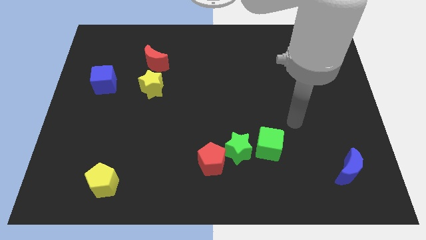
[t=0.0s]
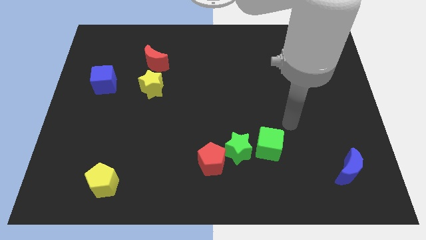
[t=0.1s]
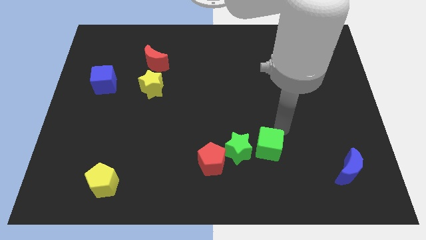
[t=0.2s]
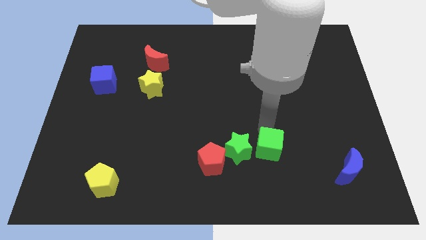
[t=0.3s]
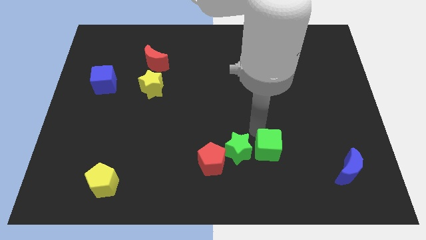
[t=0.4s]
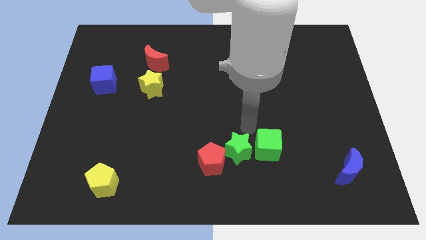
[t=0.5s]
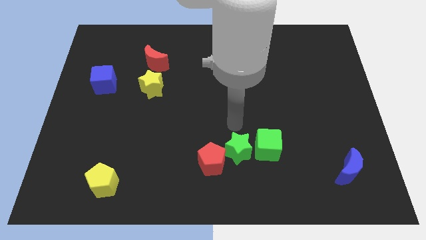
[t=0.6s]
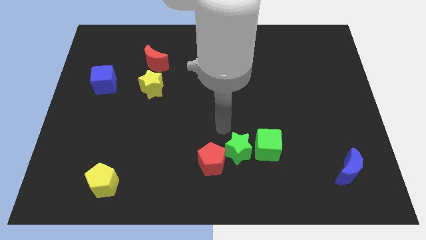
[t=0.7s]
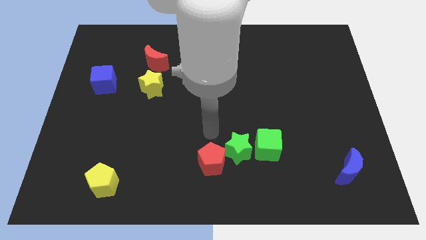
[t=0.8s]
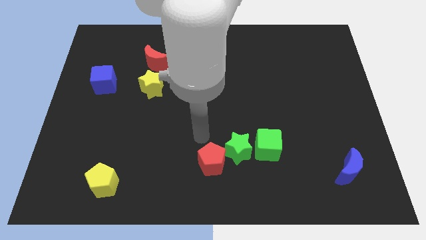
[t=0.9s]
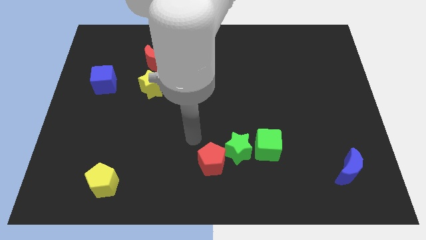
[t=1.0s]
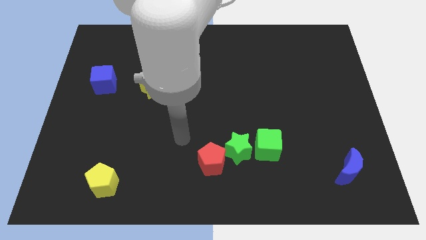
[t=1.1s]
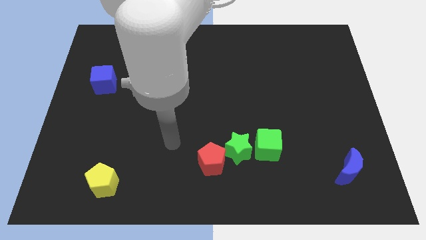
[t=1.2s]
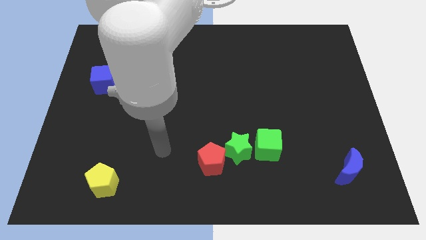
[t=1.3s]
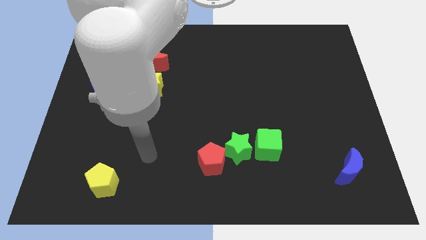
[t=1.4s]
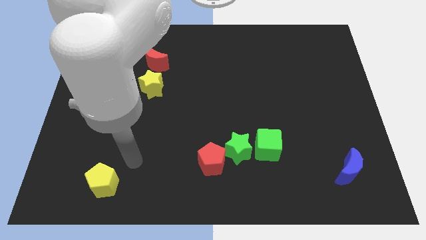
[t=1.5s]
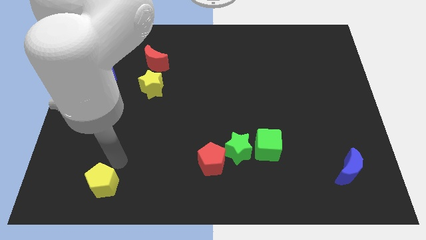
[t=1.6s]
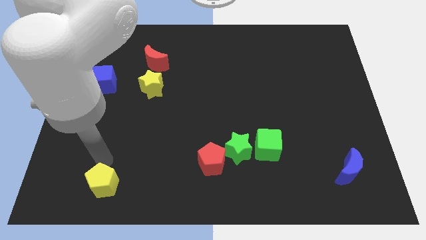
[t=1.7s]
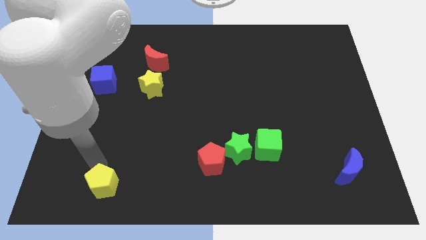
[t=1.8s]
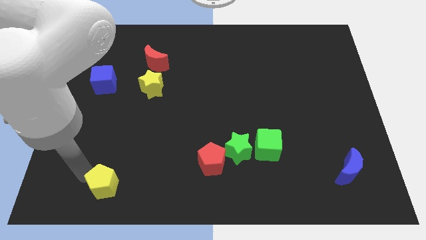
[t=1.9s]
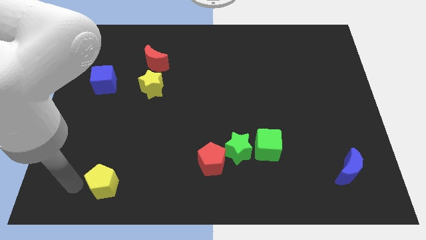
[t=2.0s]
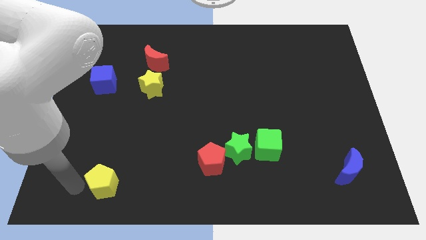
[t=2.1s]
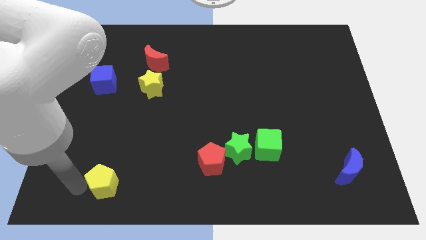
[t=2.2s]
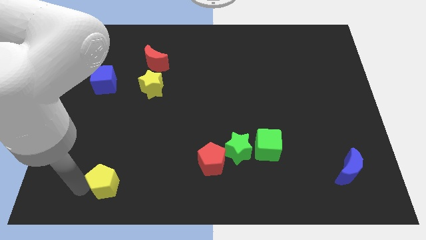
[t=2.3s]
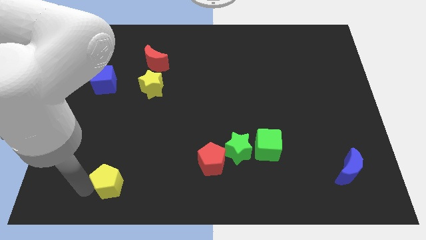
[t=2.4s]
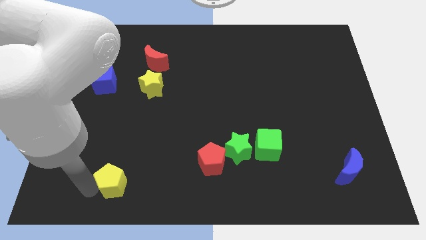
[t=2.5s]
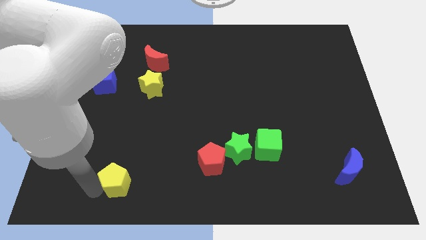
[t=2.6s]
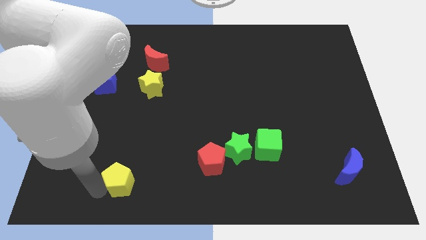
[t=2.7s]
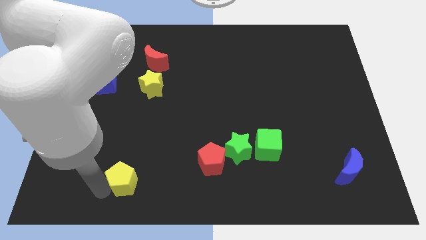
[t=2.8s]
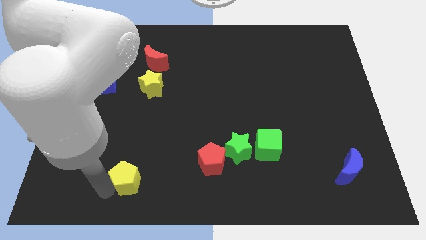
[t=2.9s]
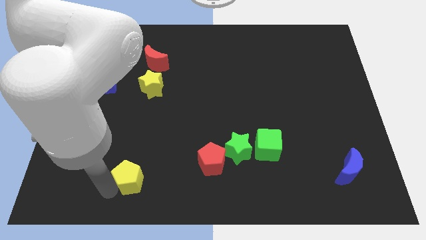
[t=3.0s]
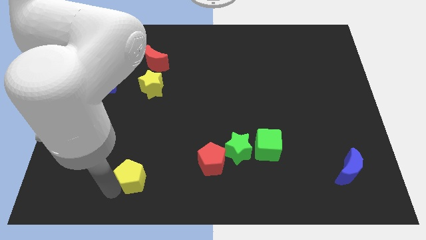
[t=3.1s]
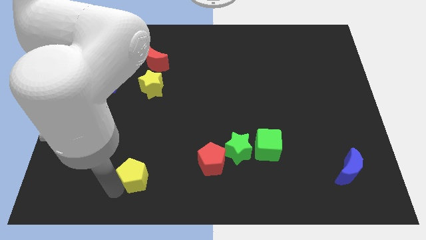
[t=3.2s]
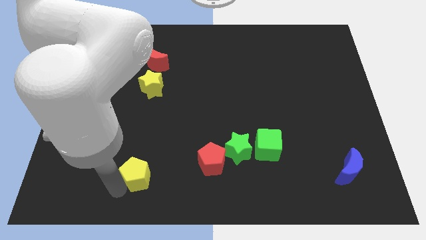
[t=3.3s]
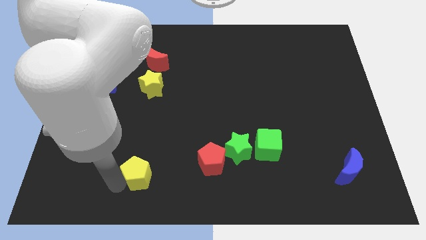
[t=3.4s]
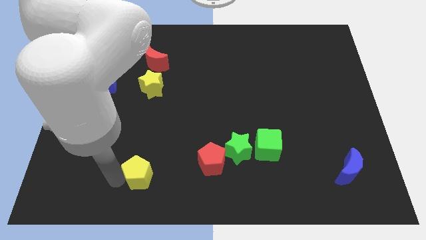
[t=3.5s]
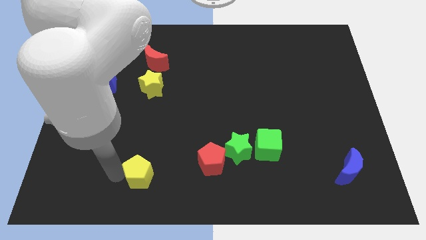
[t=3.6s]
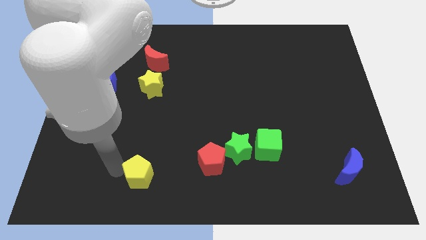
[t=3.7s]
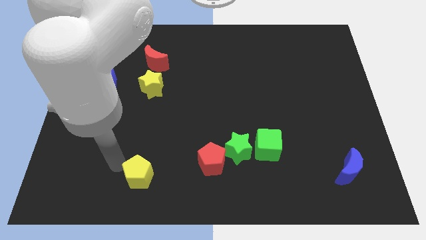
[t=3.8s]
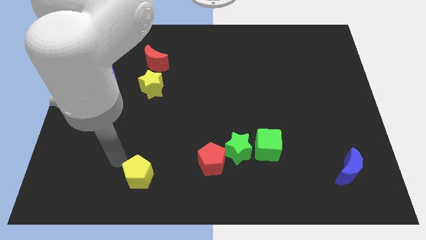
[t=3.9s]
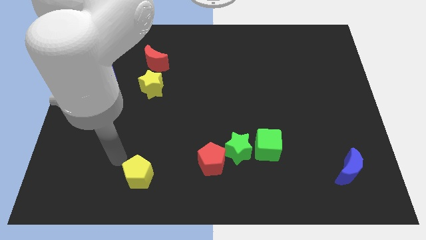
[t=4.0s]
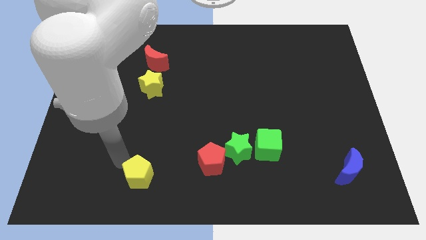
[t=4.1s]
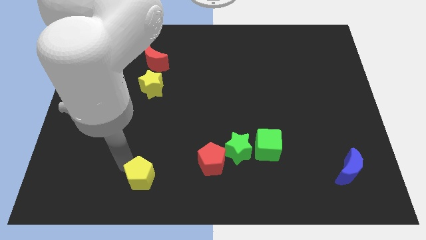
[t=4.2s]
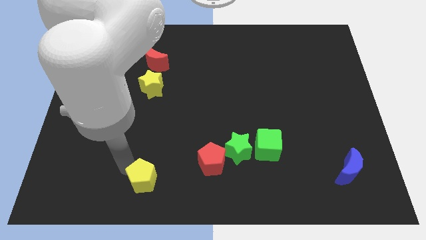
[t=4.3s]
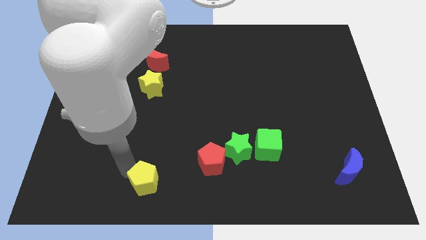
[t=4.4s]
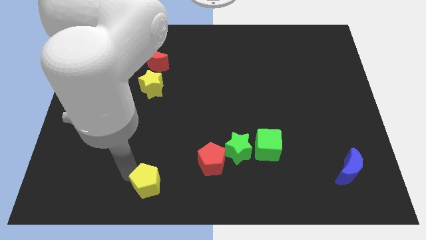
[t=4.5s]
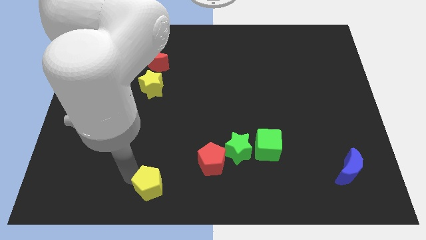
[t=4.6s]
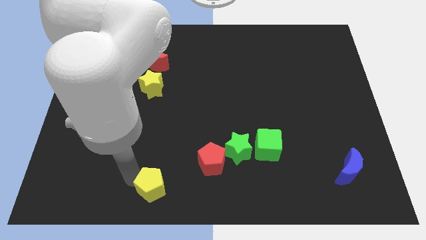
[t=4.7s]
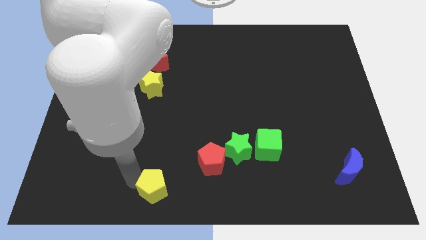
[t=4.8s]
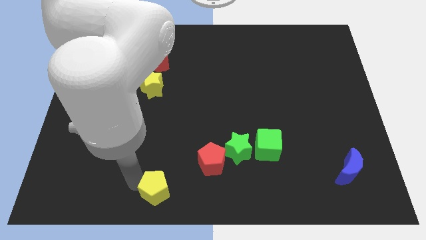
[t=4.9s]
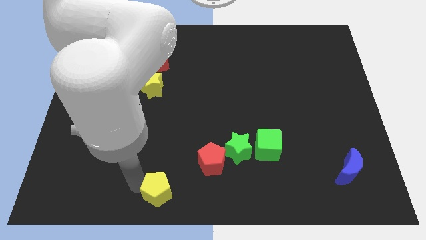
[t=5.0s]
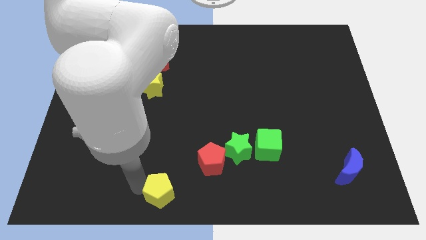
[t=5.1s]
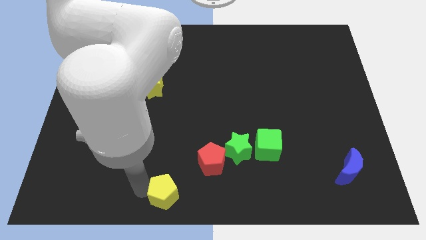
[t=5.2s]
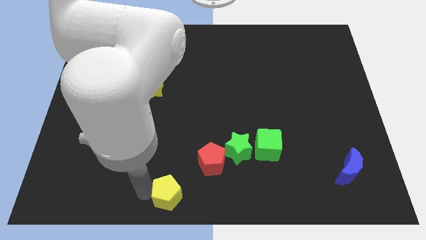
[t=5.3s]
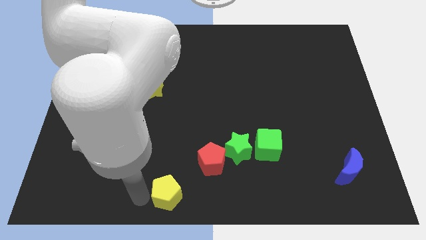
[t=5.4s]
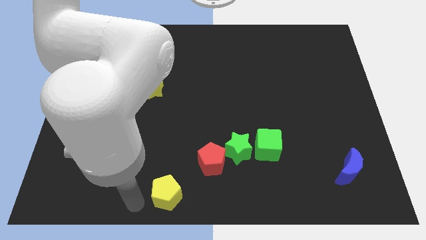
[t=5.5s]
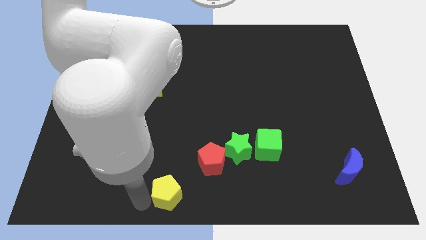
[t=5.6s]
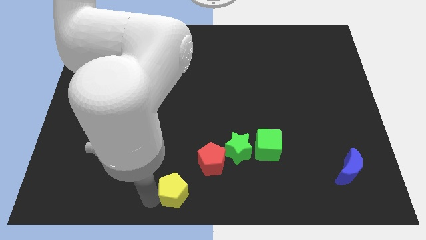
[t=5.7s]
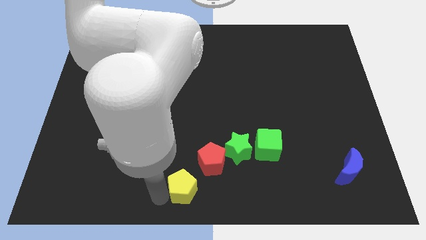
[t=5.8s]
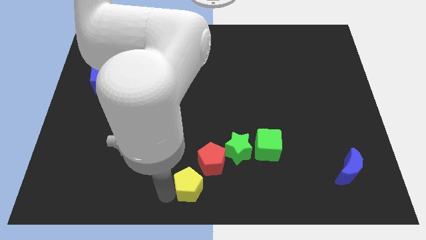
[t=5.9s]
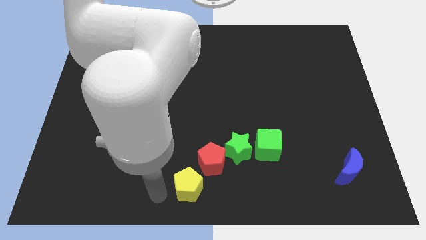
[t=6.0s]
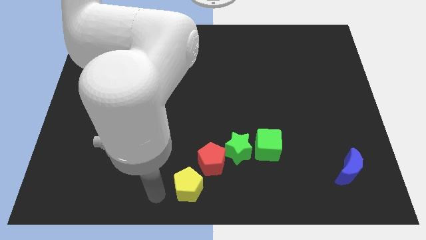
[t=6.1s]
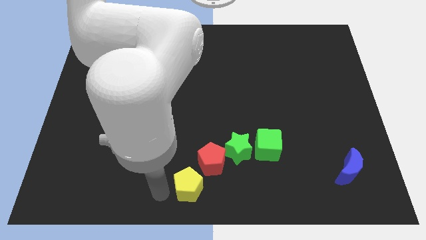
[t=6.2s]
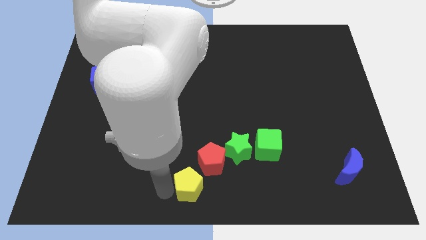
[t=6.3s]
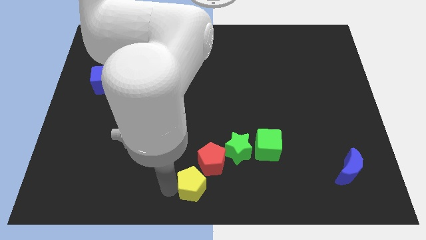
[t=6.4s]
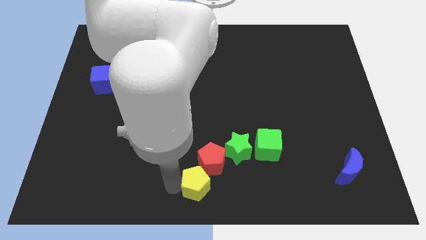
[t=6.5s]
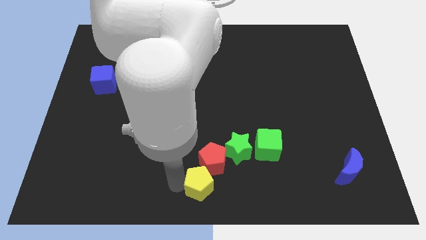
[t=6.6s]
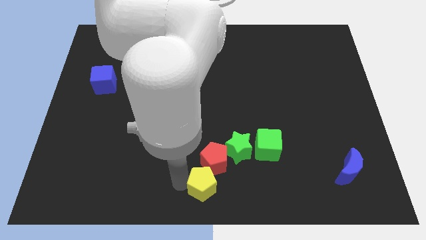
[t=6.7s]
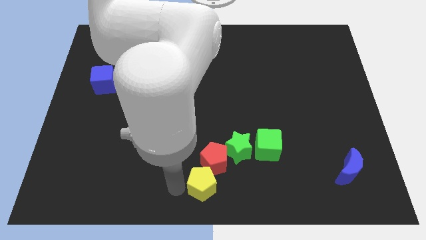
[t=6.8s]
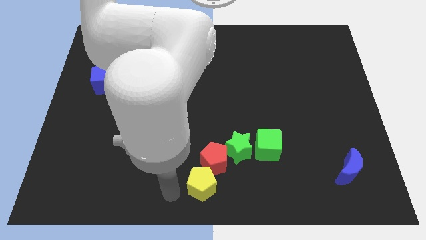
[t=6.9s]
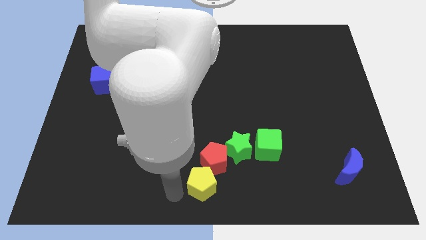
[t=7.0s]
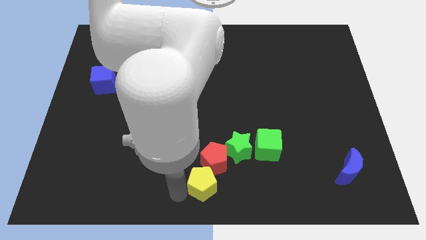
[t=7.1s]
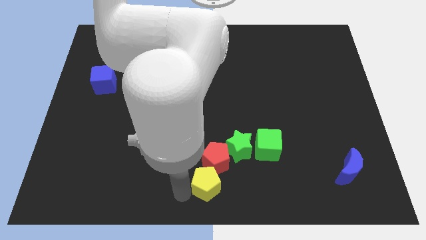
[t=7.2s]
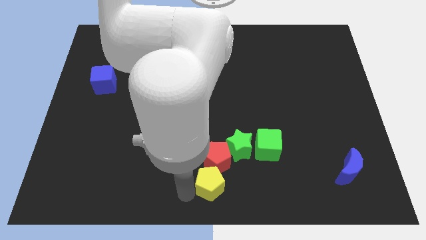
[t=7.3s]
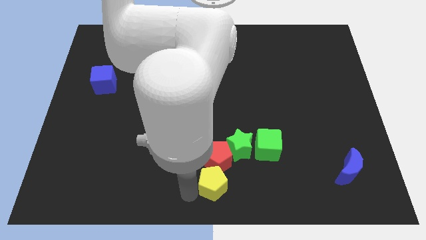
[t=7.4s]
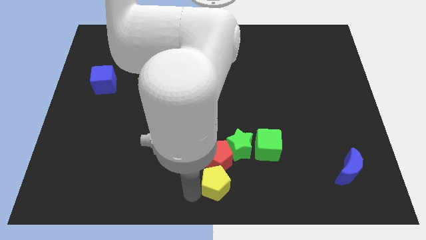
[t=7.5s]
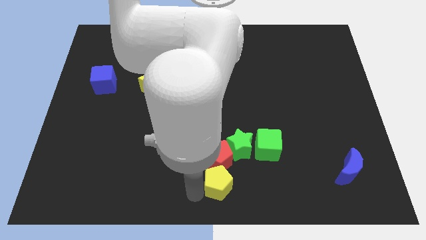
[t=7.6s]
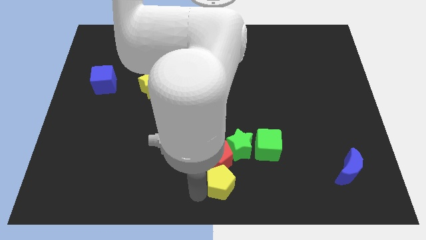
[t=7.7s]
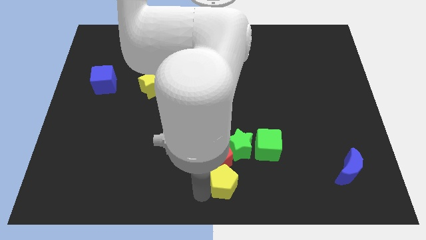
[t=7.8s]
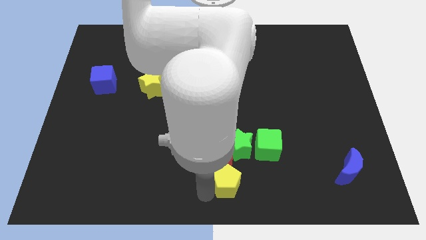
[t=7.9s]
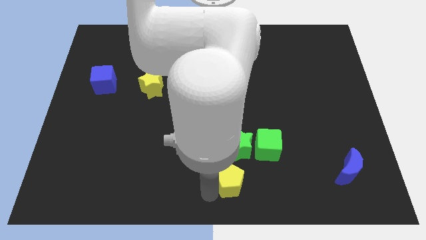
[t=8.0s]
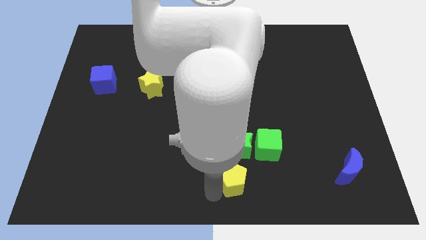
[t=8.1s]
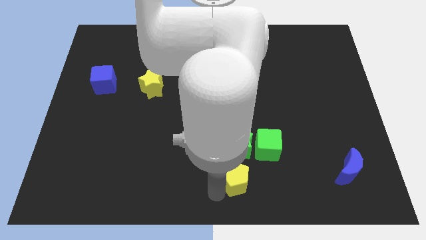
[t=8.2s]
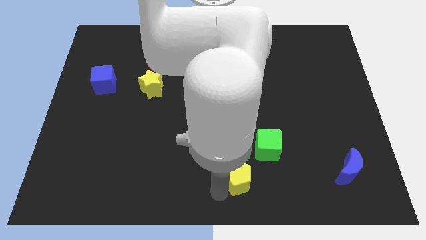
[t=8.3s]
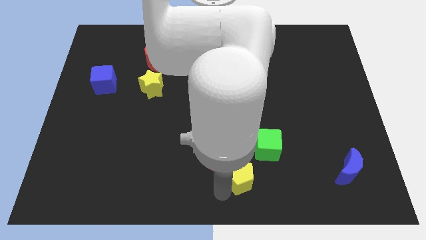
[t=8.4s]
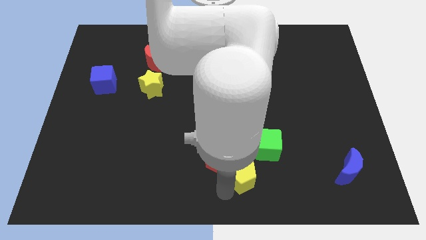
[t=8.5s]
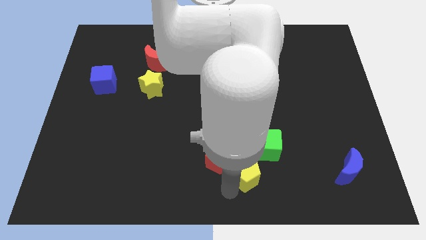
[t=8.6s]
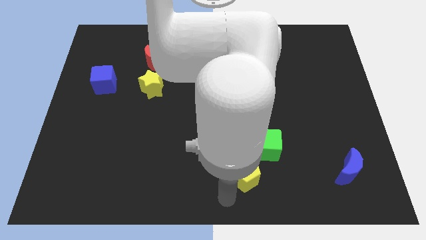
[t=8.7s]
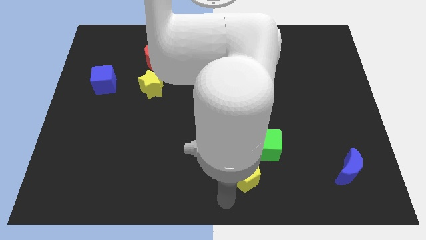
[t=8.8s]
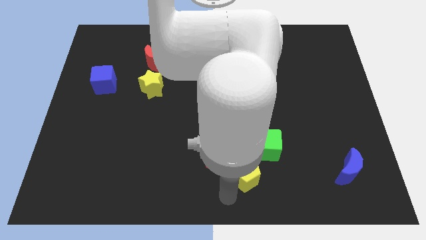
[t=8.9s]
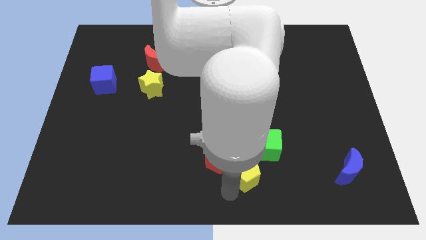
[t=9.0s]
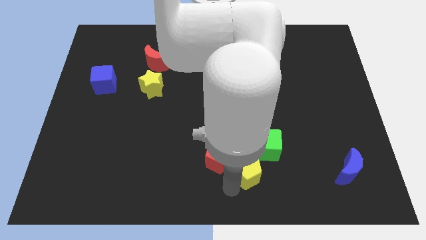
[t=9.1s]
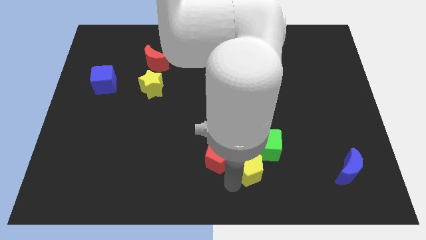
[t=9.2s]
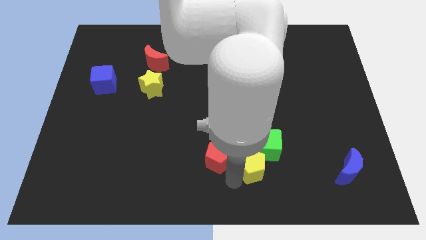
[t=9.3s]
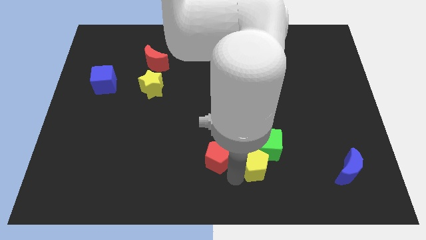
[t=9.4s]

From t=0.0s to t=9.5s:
move the yellow pentagon close to the green cube
